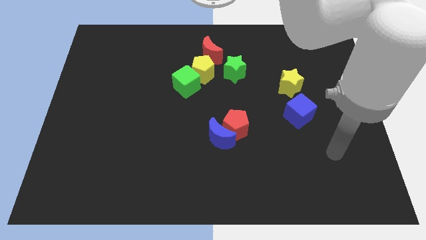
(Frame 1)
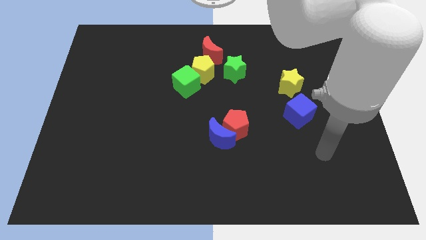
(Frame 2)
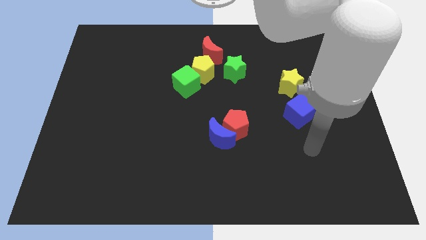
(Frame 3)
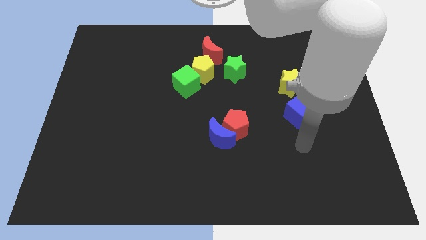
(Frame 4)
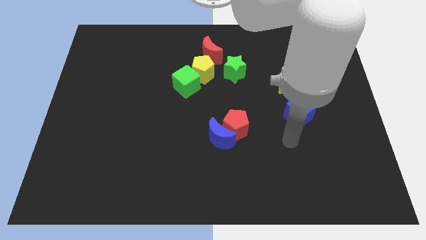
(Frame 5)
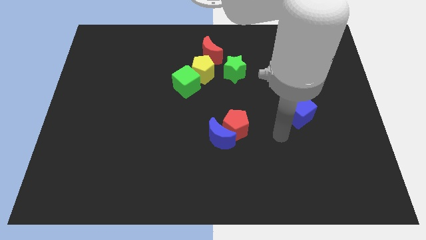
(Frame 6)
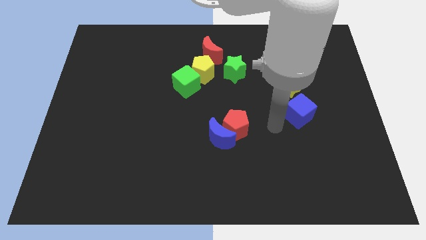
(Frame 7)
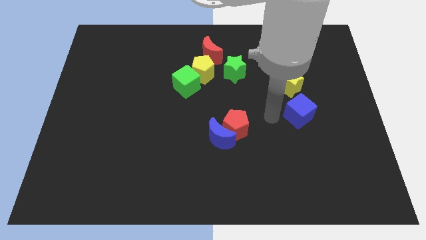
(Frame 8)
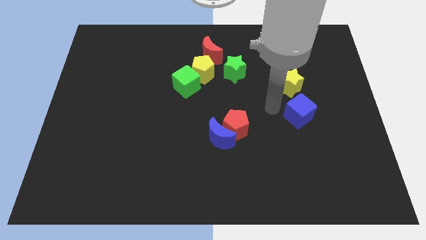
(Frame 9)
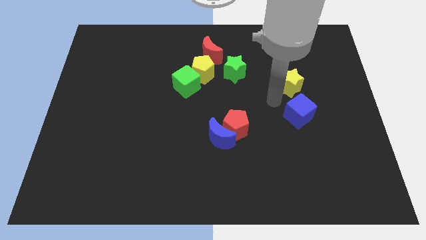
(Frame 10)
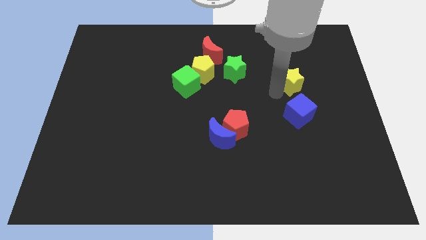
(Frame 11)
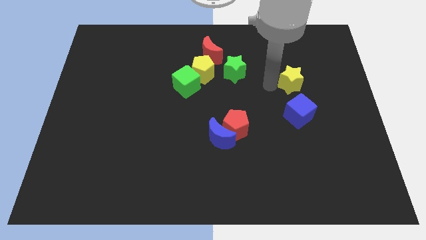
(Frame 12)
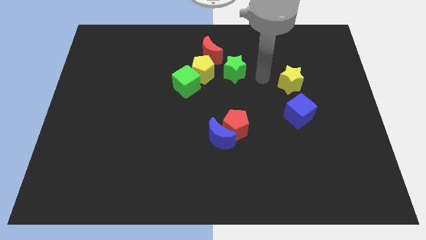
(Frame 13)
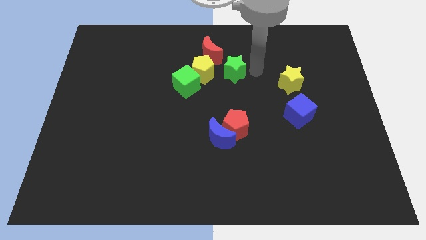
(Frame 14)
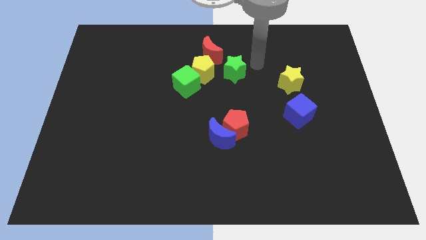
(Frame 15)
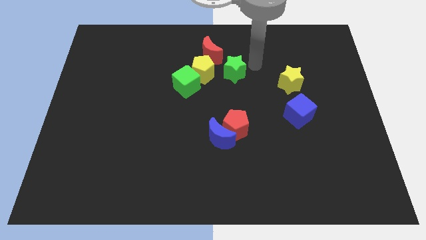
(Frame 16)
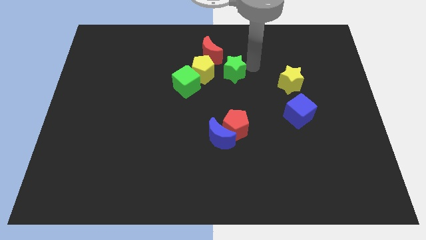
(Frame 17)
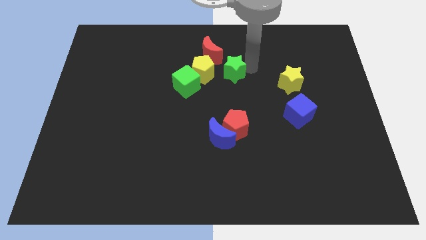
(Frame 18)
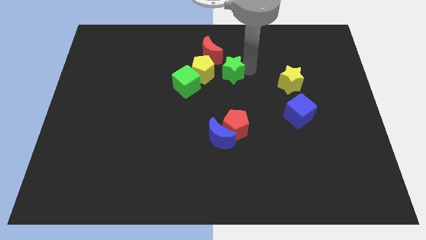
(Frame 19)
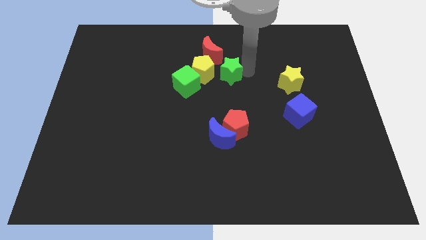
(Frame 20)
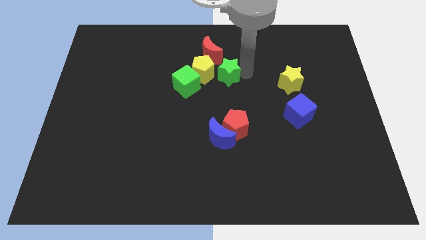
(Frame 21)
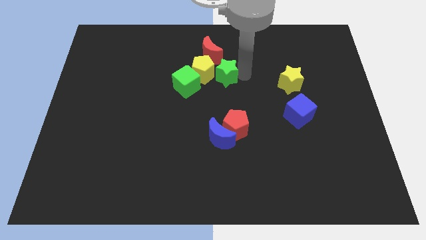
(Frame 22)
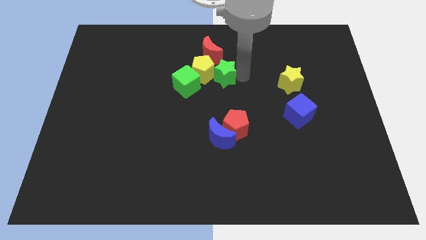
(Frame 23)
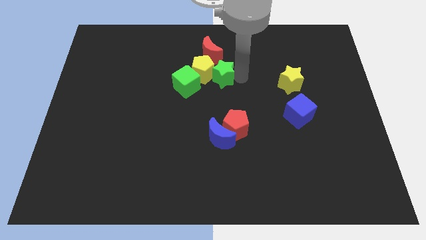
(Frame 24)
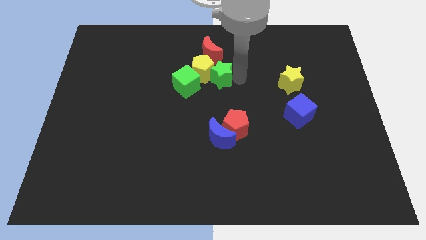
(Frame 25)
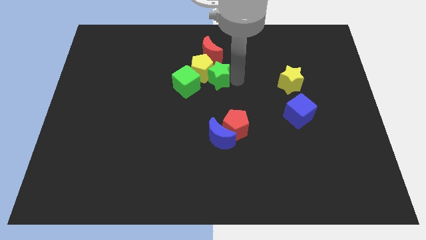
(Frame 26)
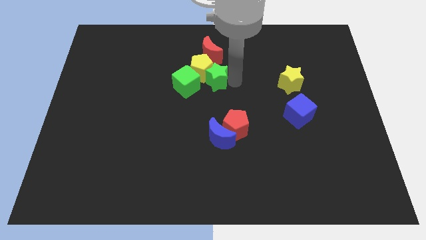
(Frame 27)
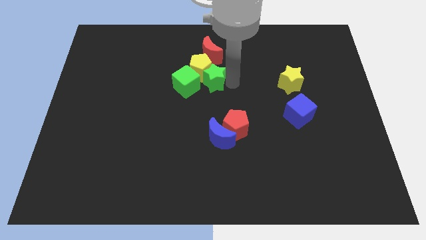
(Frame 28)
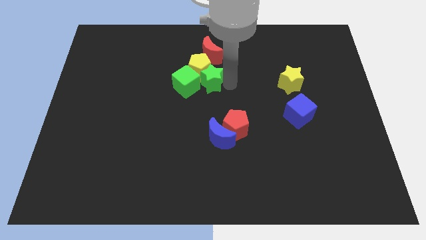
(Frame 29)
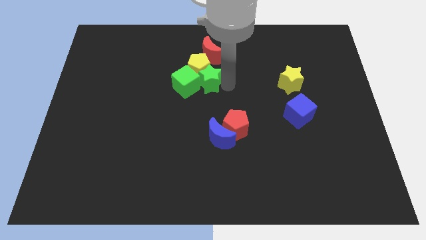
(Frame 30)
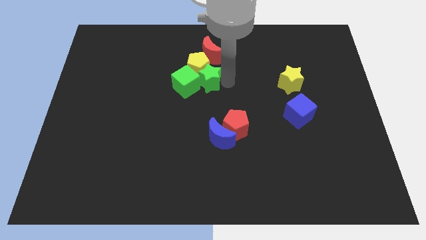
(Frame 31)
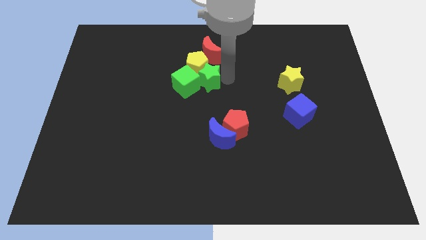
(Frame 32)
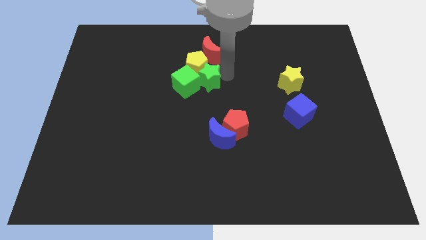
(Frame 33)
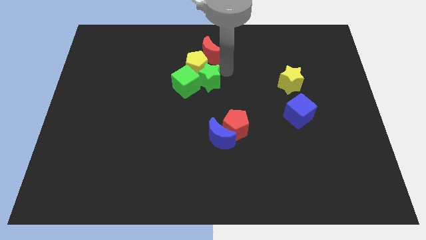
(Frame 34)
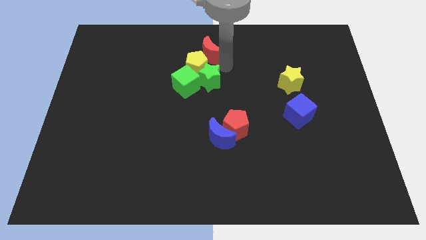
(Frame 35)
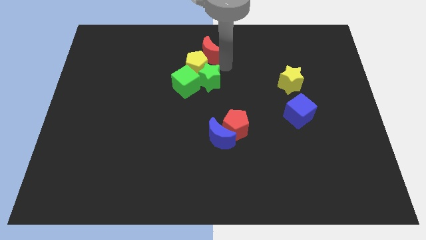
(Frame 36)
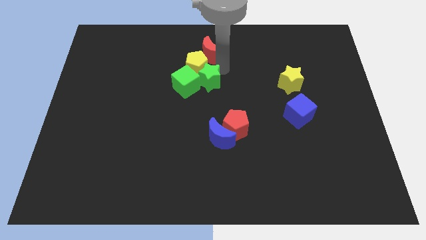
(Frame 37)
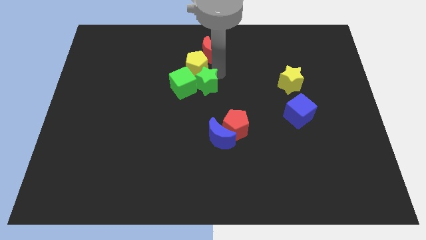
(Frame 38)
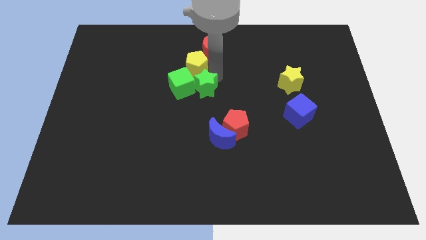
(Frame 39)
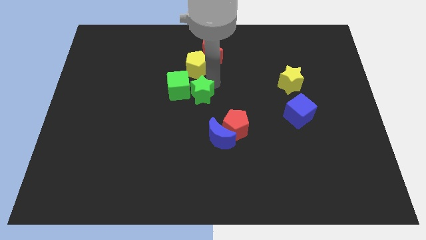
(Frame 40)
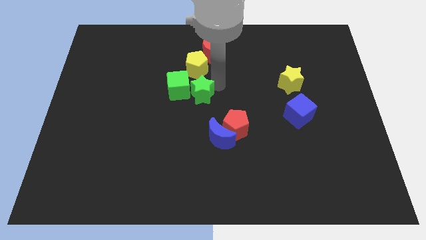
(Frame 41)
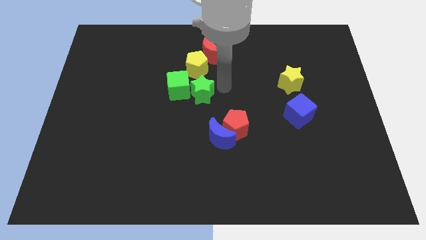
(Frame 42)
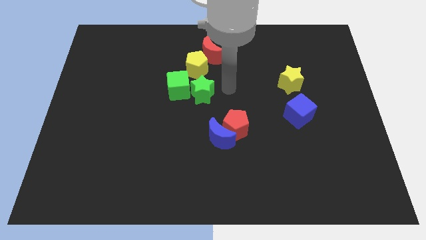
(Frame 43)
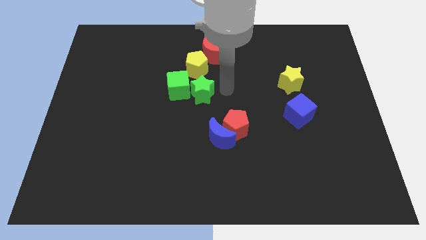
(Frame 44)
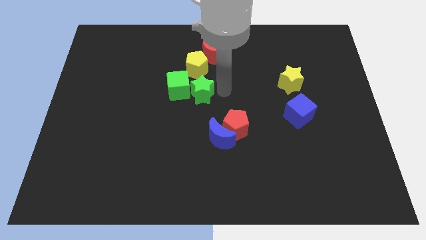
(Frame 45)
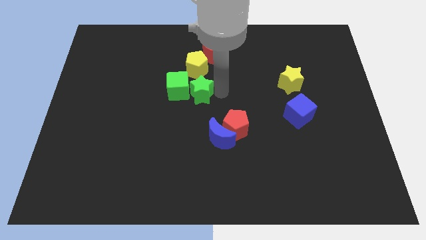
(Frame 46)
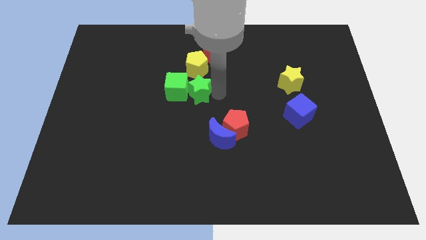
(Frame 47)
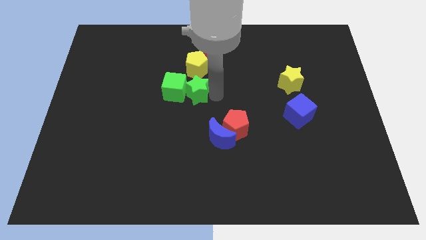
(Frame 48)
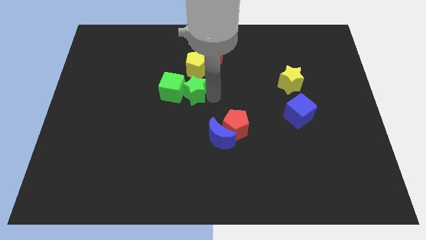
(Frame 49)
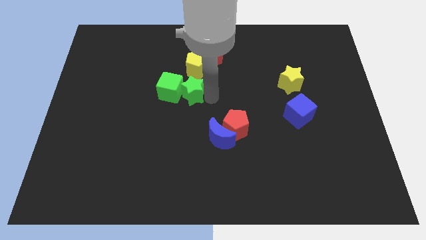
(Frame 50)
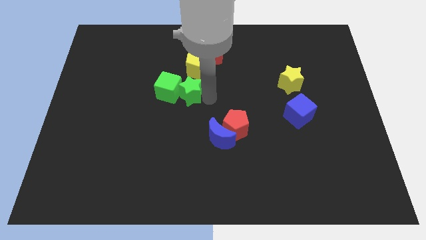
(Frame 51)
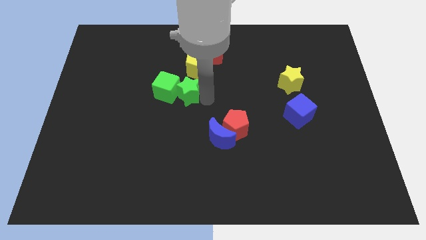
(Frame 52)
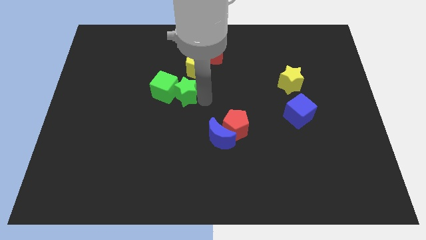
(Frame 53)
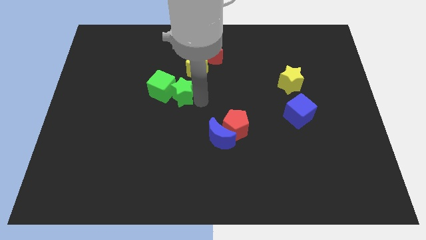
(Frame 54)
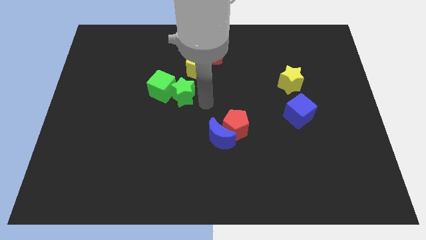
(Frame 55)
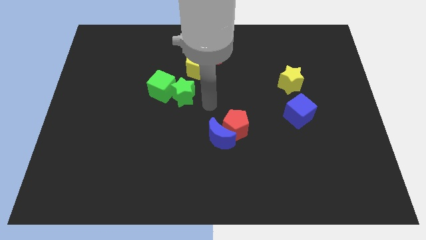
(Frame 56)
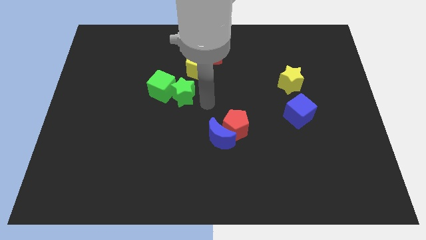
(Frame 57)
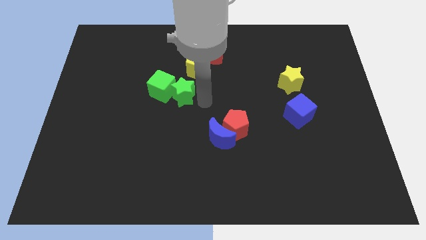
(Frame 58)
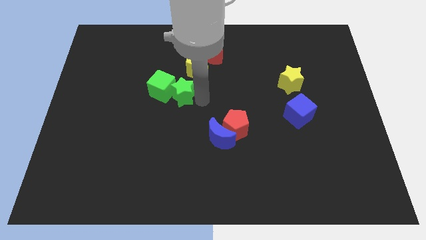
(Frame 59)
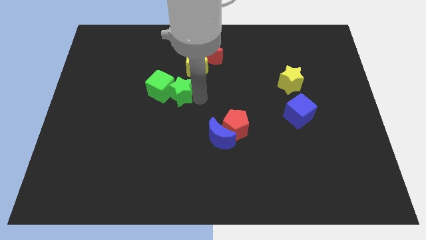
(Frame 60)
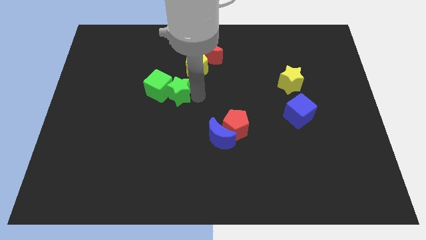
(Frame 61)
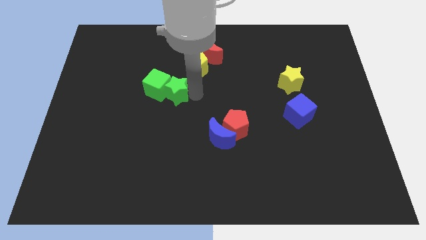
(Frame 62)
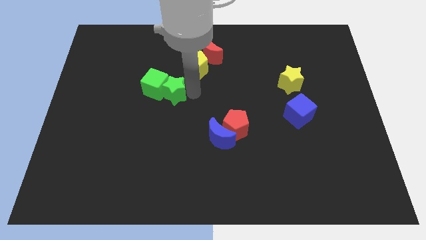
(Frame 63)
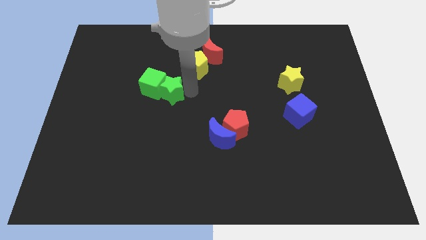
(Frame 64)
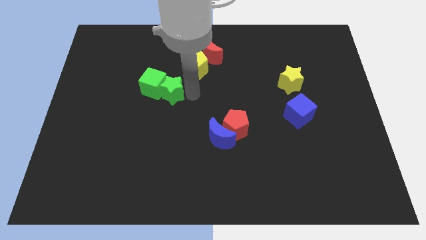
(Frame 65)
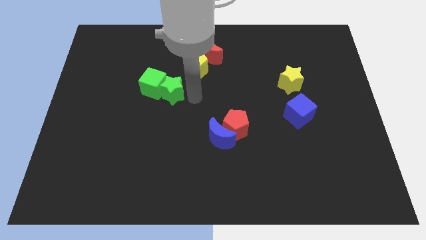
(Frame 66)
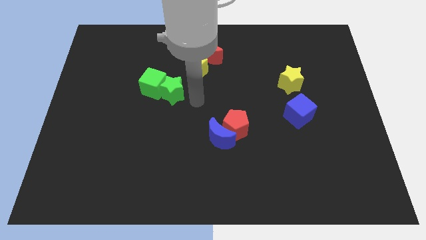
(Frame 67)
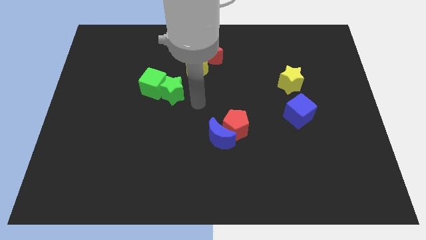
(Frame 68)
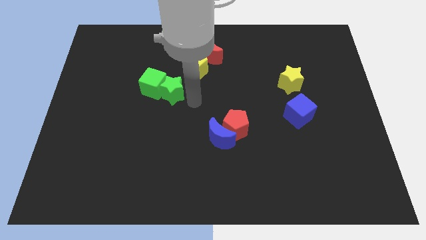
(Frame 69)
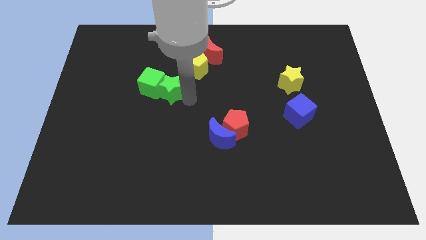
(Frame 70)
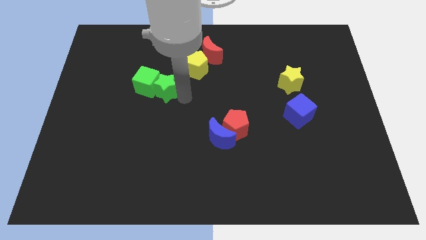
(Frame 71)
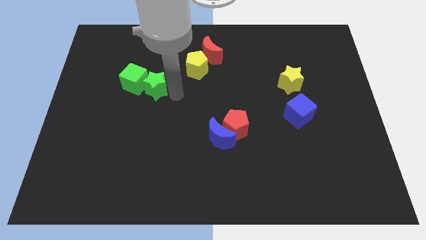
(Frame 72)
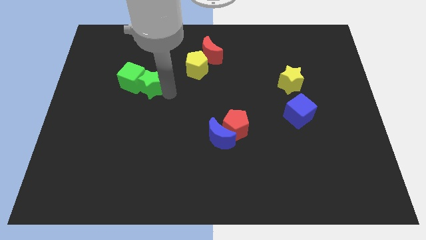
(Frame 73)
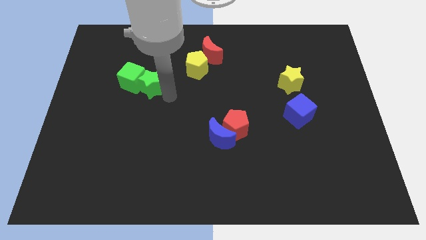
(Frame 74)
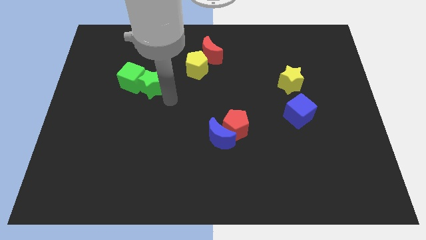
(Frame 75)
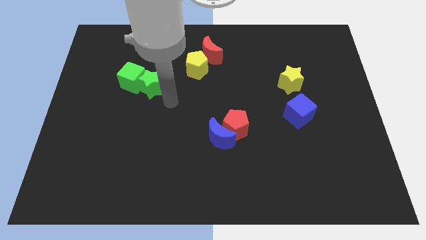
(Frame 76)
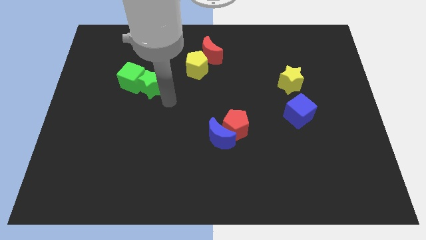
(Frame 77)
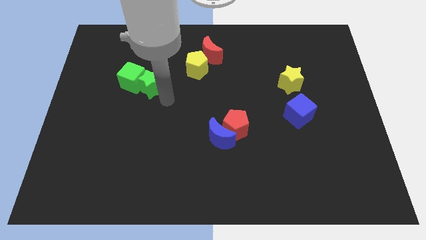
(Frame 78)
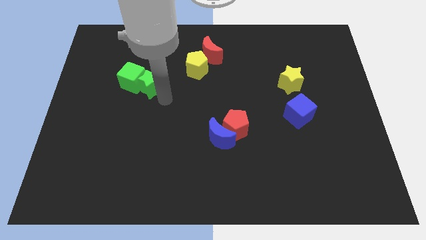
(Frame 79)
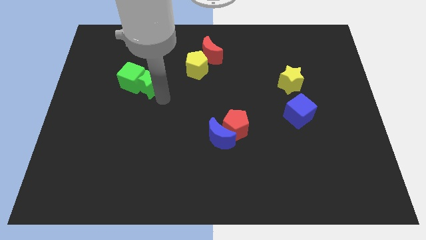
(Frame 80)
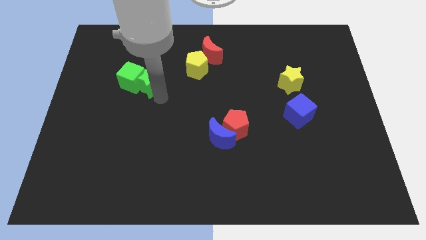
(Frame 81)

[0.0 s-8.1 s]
push the green star left

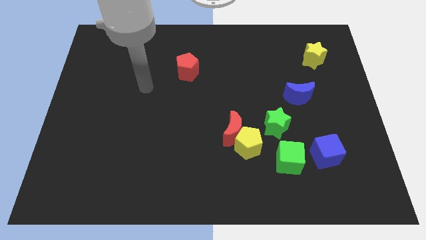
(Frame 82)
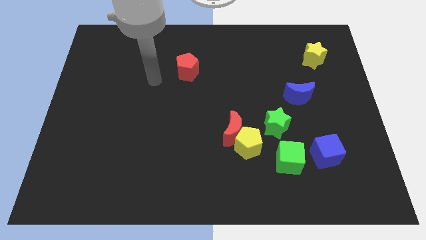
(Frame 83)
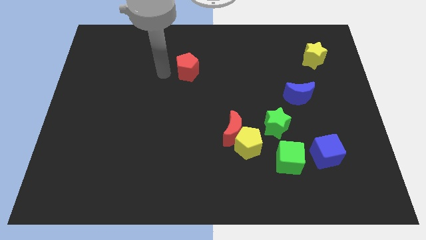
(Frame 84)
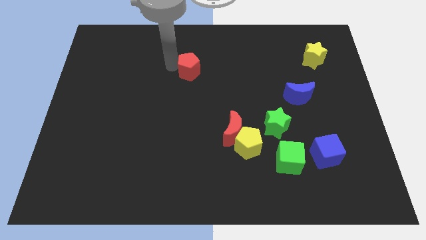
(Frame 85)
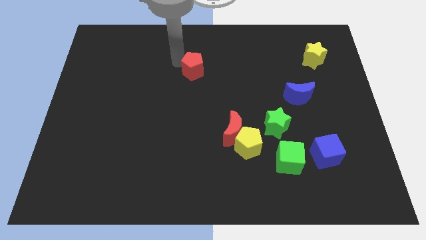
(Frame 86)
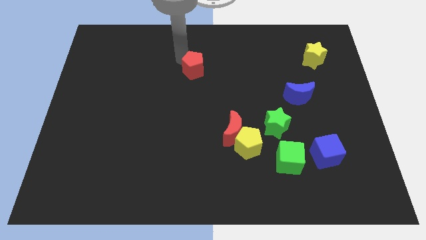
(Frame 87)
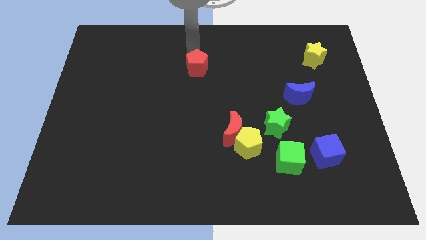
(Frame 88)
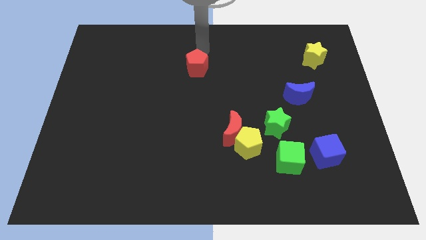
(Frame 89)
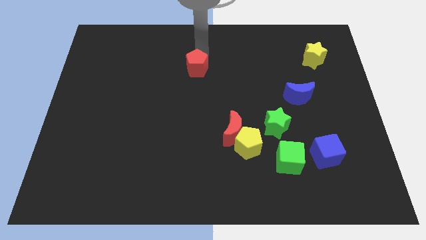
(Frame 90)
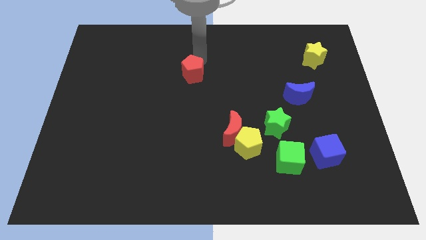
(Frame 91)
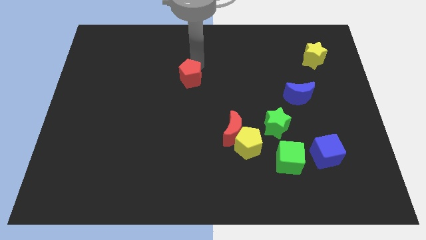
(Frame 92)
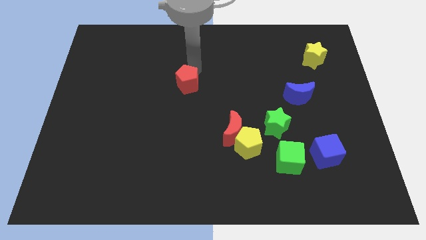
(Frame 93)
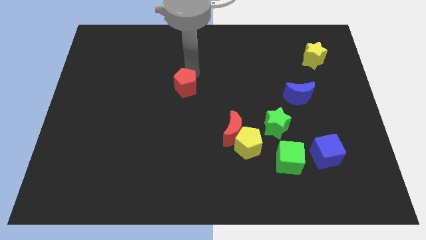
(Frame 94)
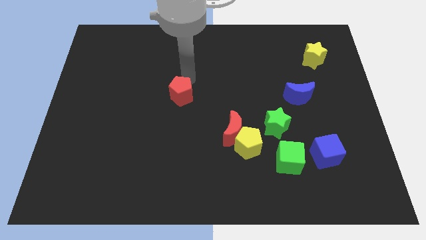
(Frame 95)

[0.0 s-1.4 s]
move the red pentagon slightly downwards
